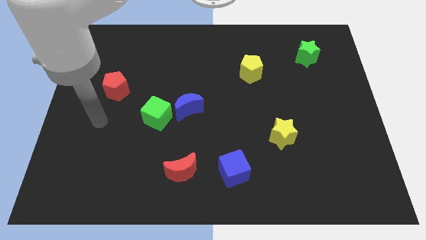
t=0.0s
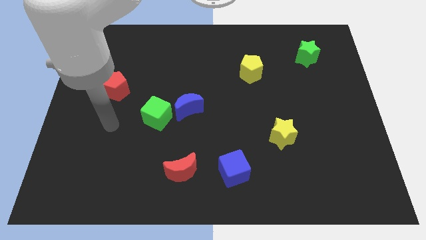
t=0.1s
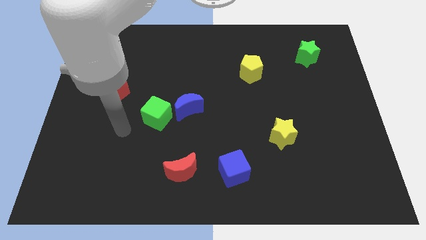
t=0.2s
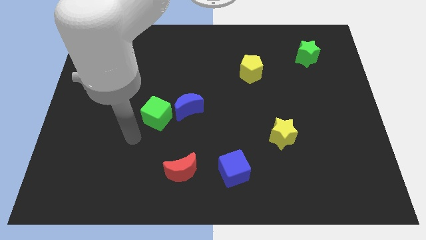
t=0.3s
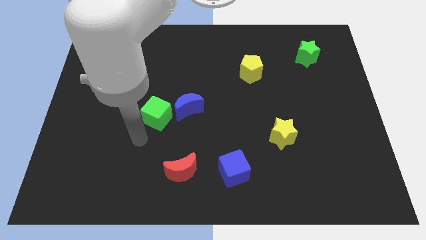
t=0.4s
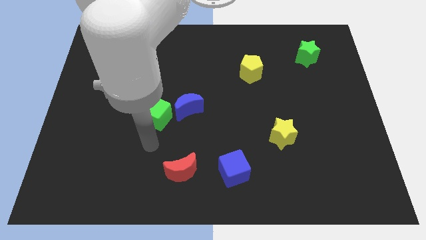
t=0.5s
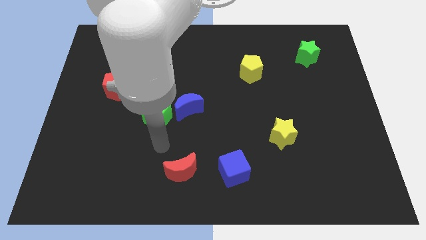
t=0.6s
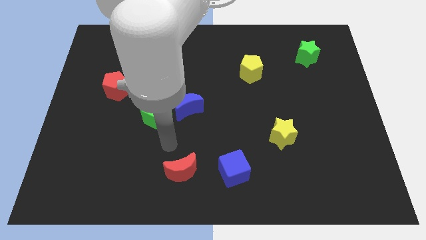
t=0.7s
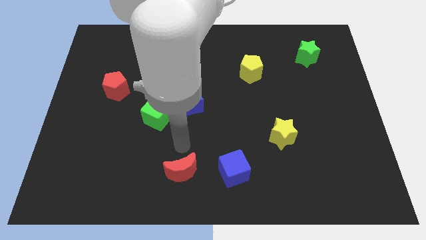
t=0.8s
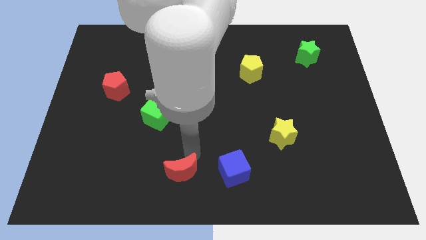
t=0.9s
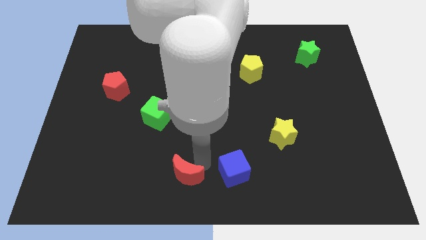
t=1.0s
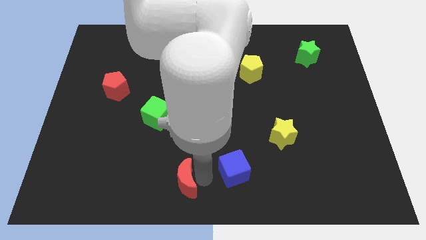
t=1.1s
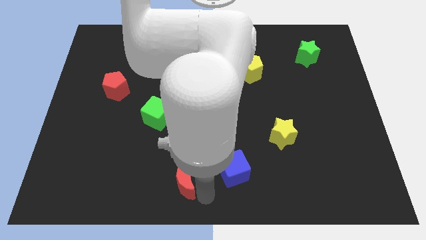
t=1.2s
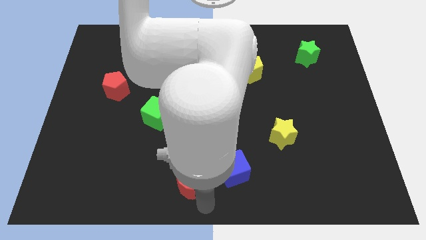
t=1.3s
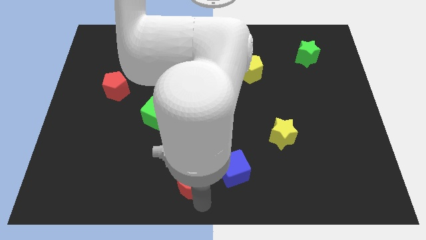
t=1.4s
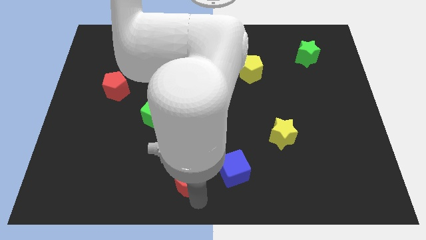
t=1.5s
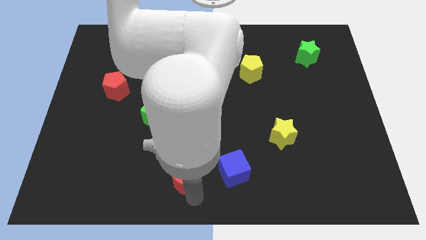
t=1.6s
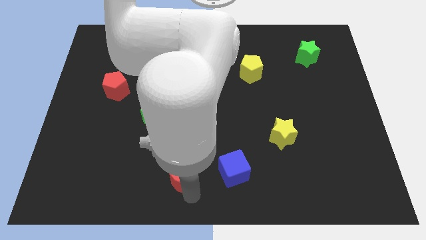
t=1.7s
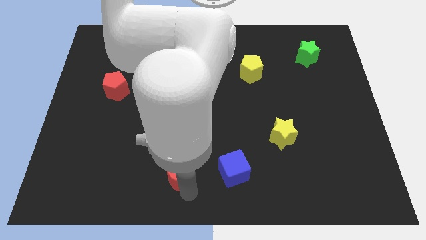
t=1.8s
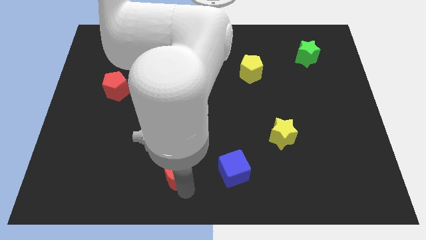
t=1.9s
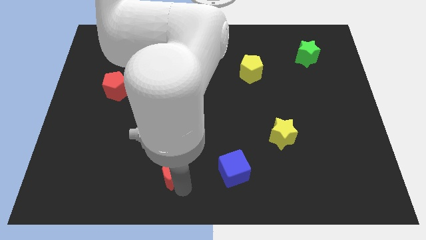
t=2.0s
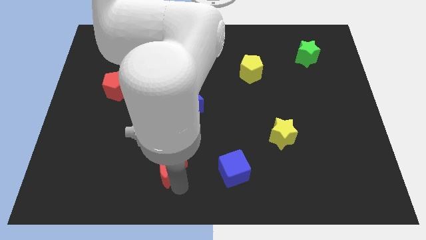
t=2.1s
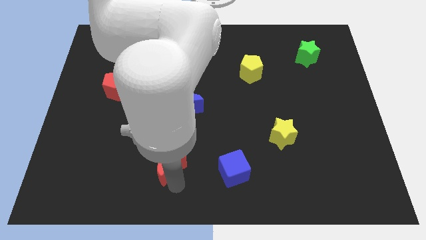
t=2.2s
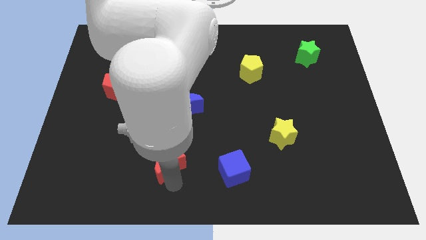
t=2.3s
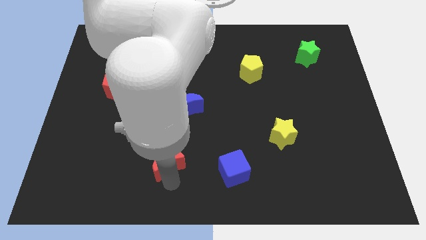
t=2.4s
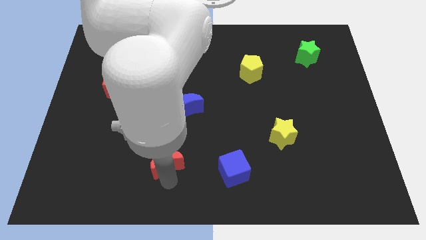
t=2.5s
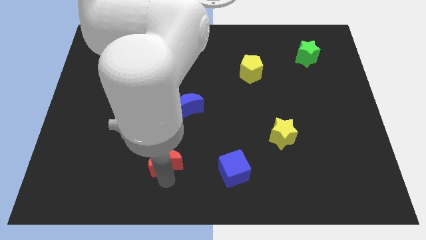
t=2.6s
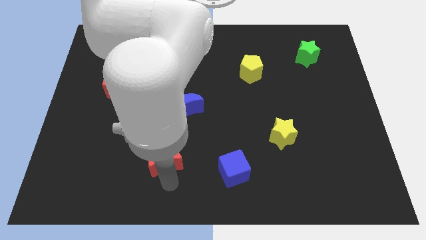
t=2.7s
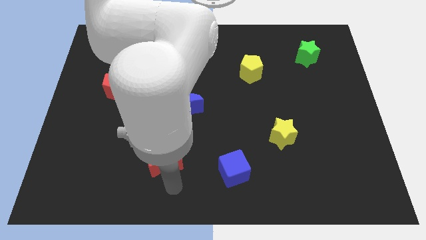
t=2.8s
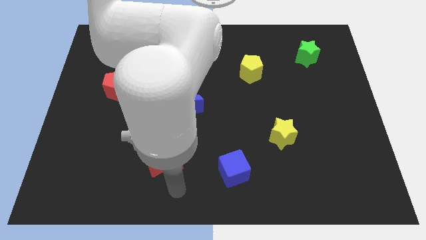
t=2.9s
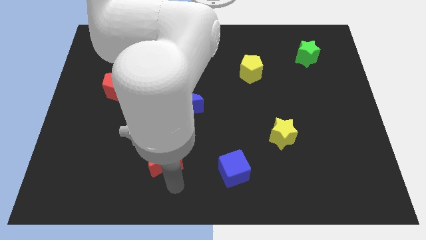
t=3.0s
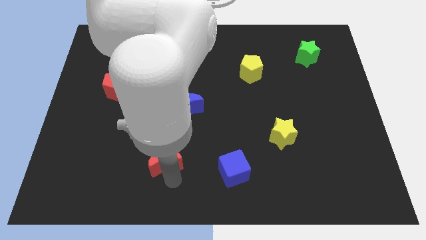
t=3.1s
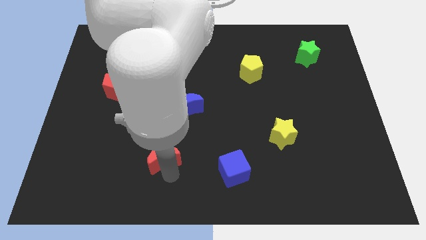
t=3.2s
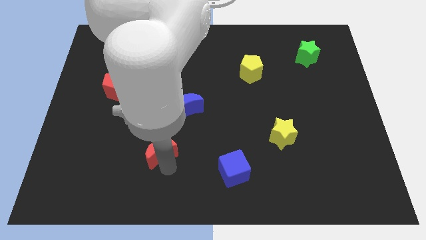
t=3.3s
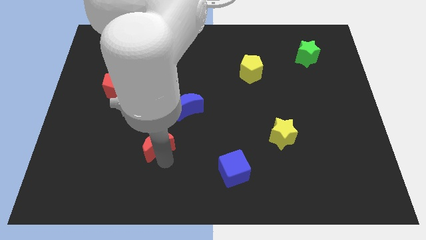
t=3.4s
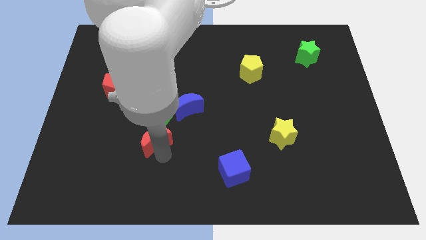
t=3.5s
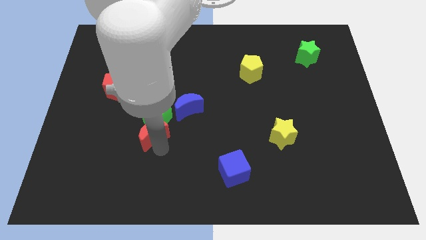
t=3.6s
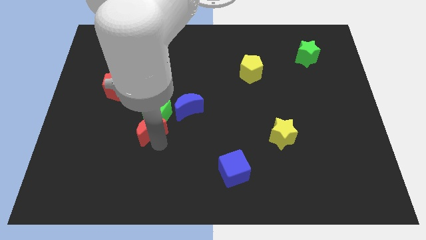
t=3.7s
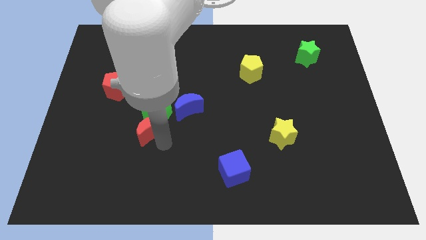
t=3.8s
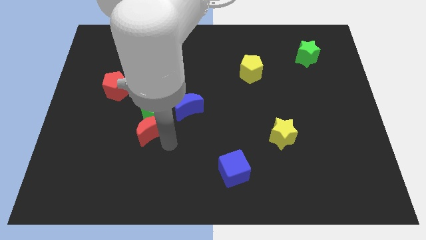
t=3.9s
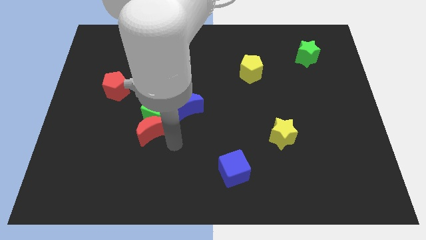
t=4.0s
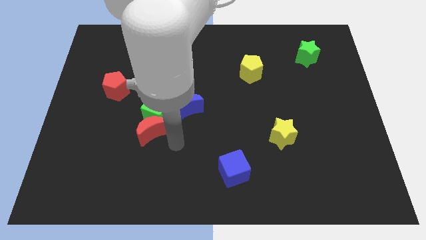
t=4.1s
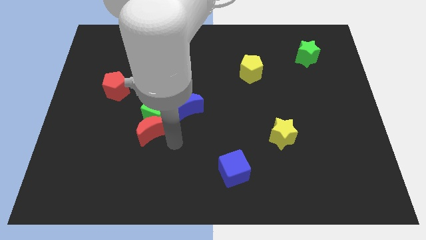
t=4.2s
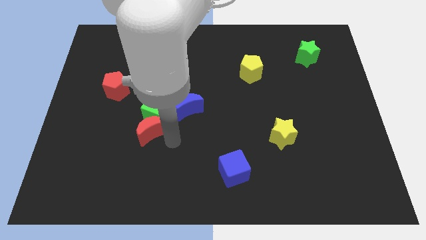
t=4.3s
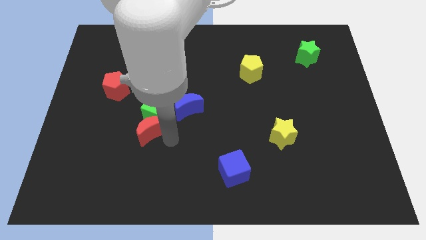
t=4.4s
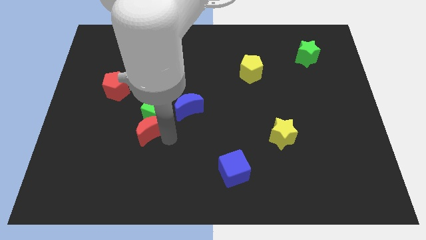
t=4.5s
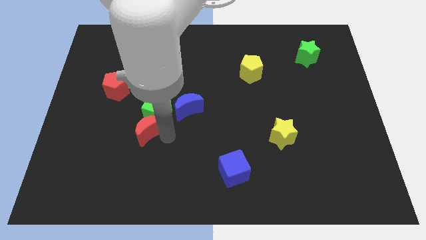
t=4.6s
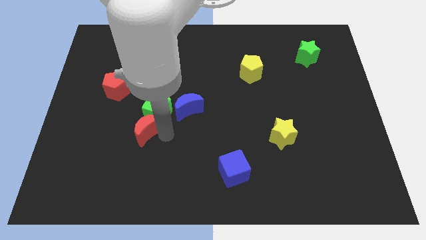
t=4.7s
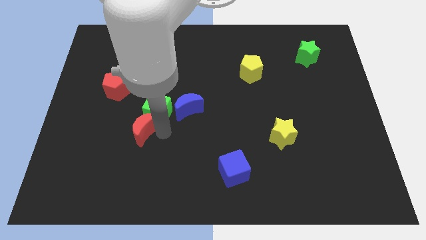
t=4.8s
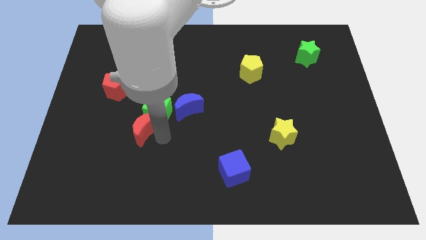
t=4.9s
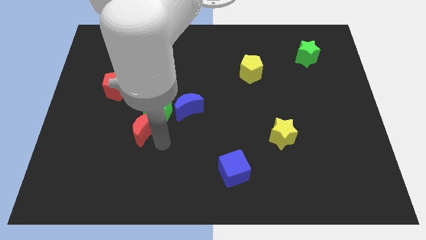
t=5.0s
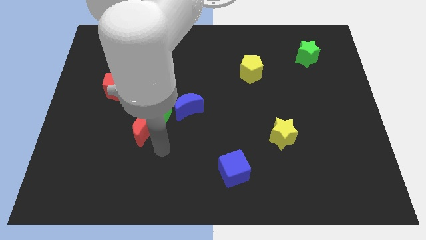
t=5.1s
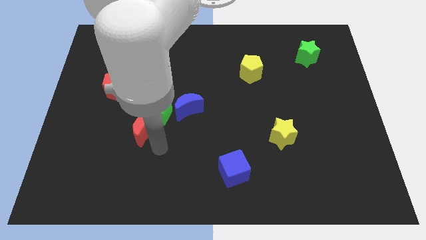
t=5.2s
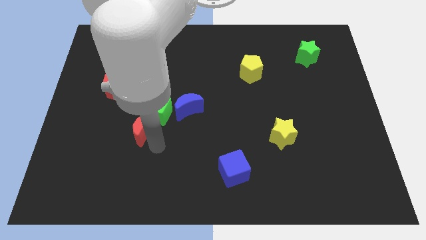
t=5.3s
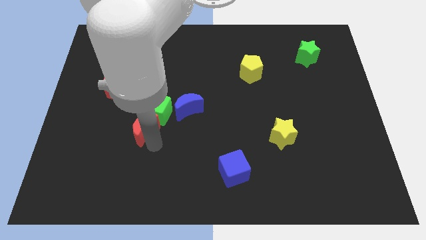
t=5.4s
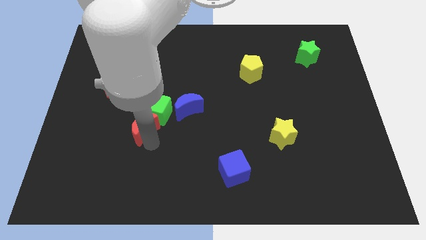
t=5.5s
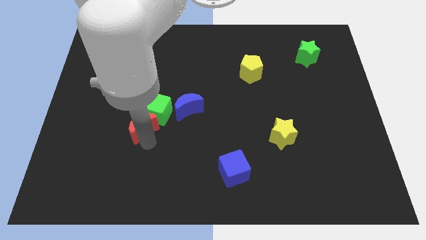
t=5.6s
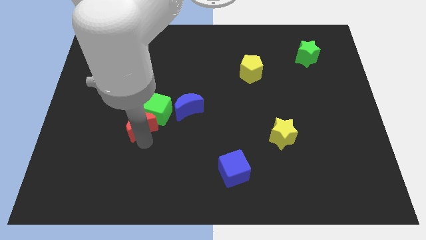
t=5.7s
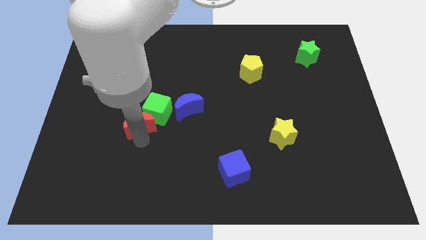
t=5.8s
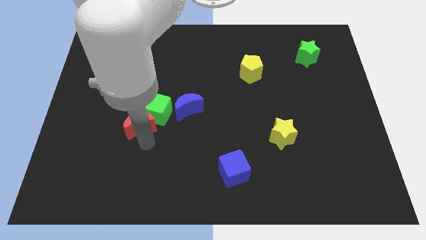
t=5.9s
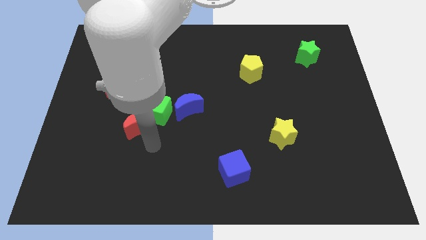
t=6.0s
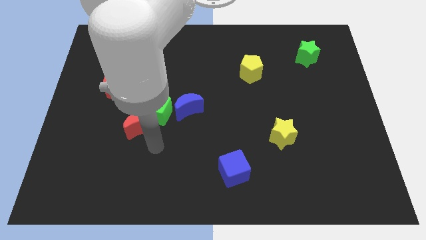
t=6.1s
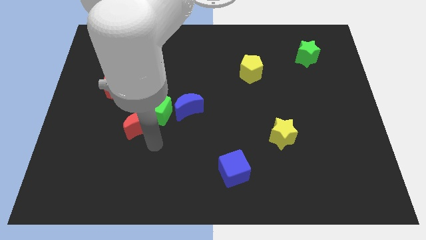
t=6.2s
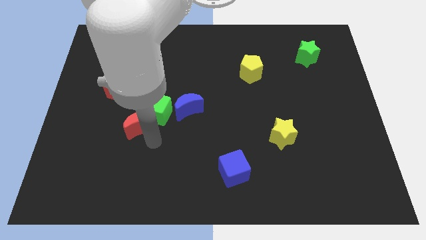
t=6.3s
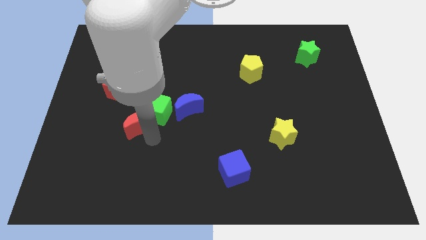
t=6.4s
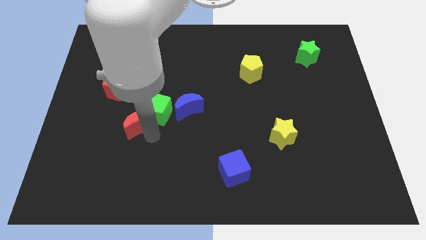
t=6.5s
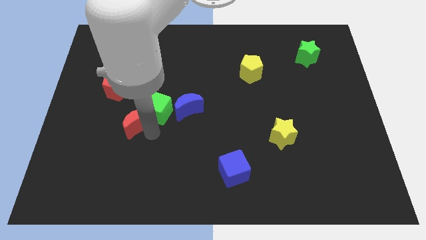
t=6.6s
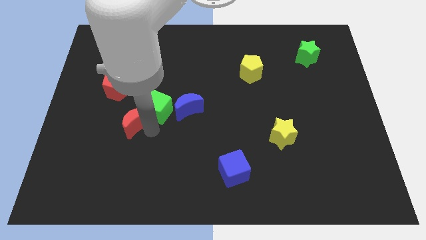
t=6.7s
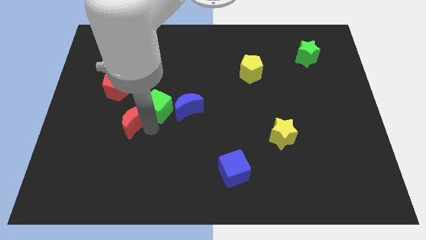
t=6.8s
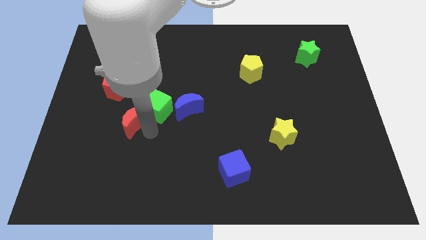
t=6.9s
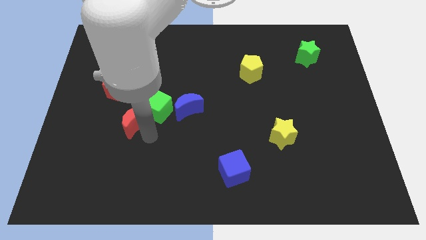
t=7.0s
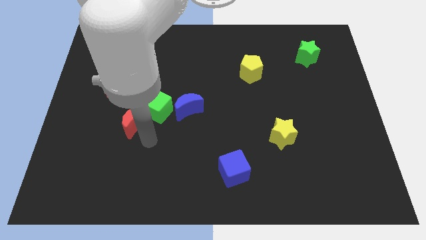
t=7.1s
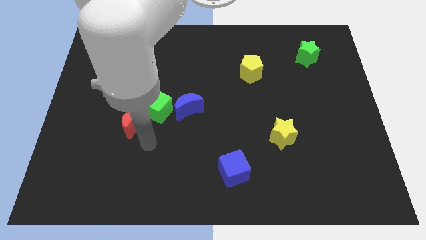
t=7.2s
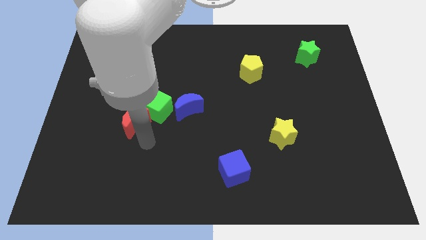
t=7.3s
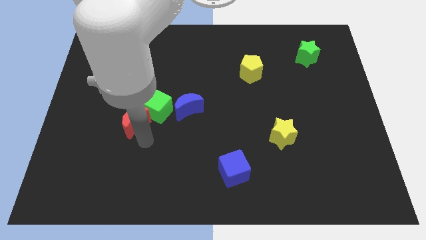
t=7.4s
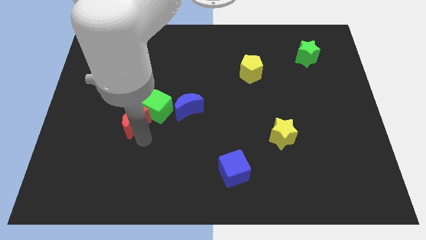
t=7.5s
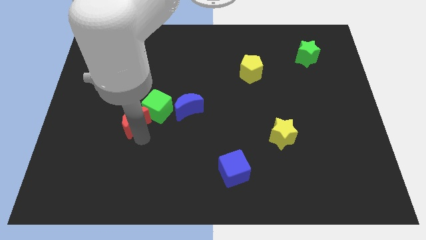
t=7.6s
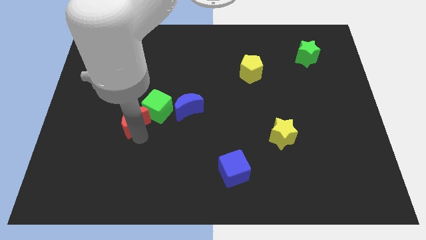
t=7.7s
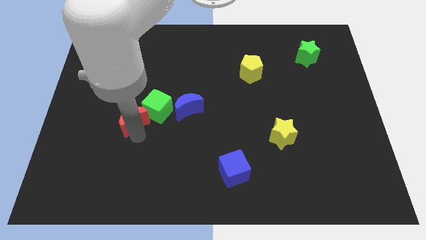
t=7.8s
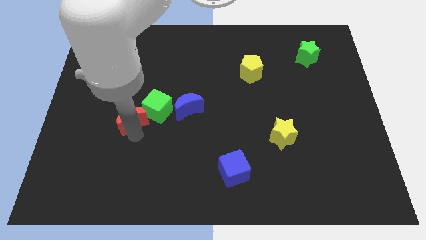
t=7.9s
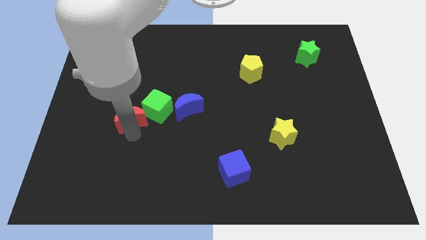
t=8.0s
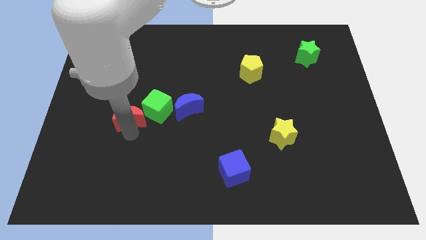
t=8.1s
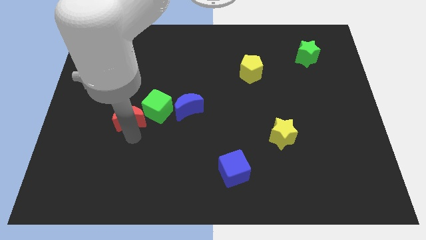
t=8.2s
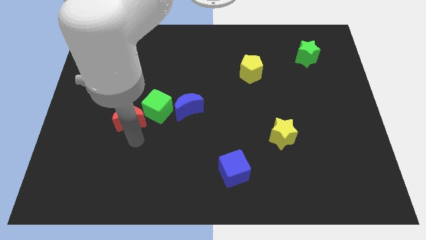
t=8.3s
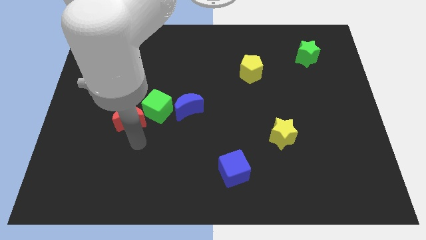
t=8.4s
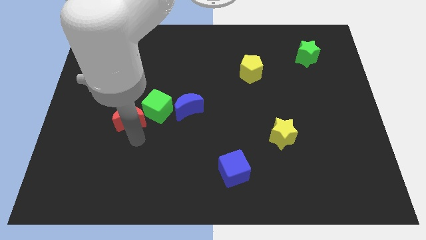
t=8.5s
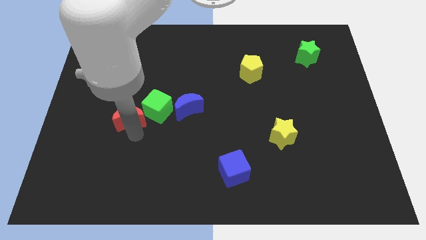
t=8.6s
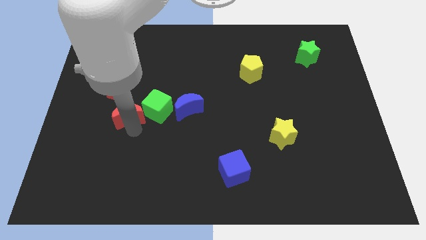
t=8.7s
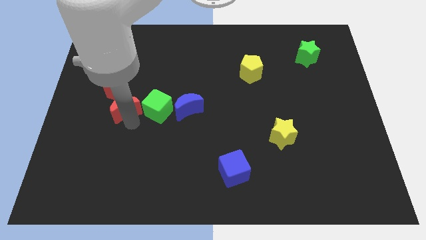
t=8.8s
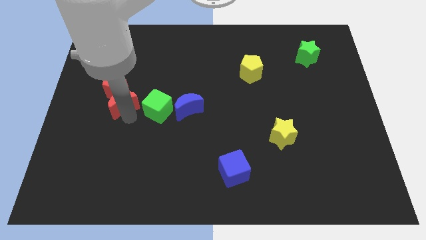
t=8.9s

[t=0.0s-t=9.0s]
slide the red moon towards the red pentagon
